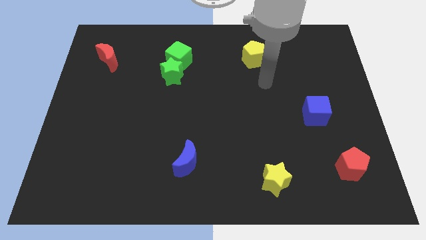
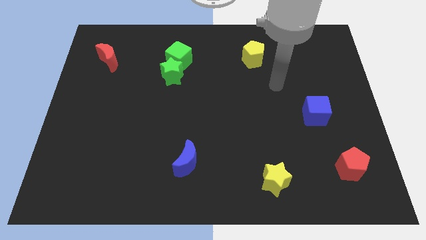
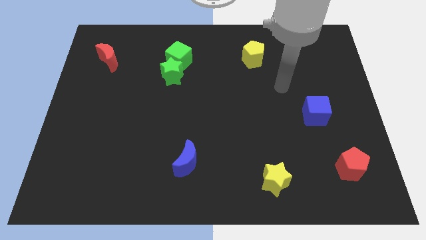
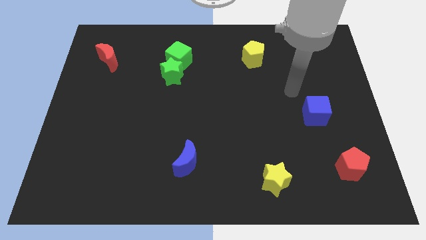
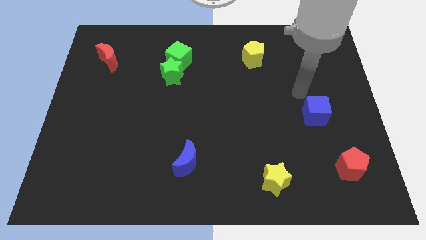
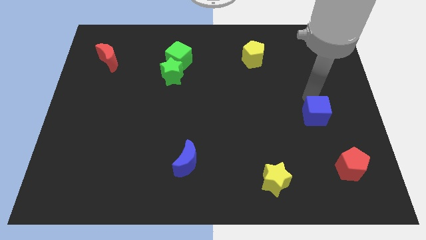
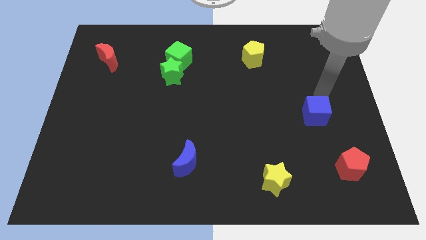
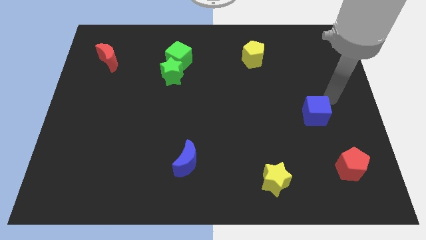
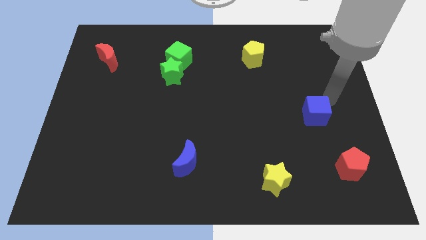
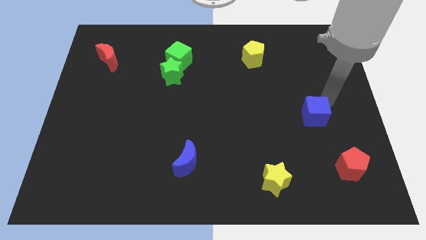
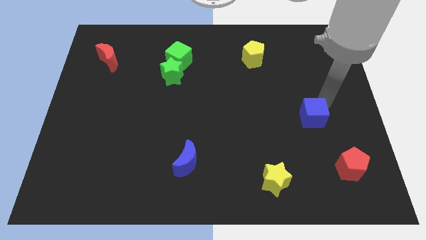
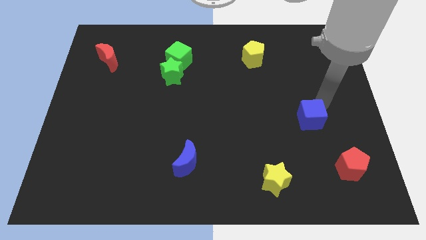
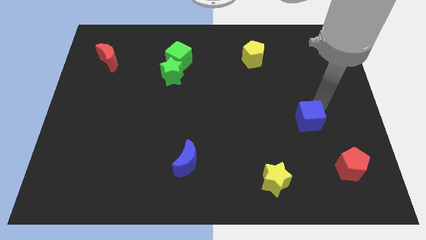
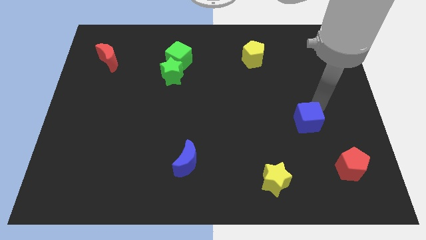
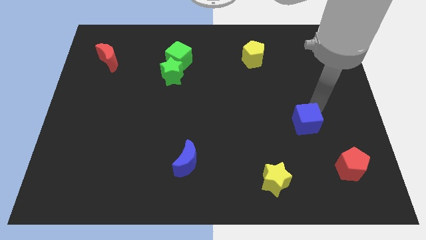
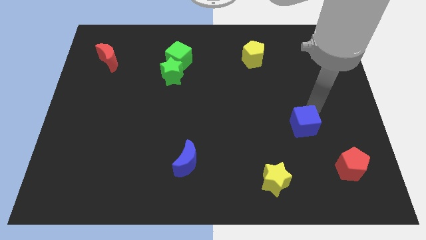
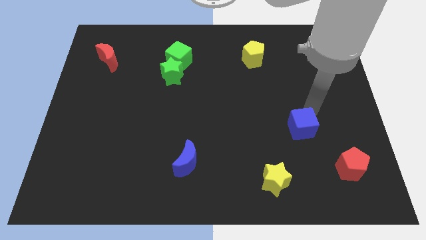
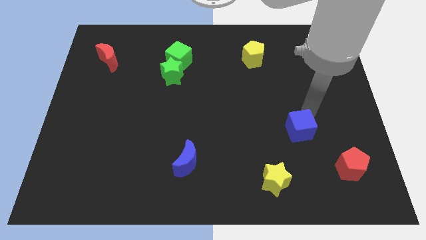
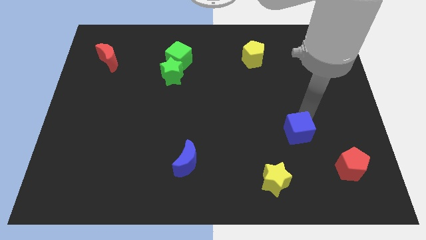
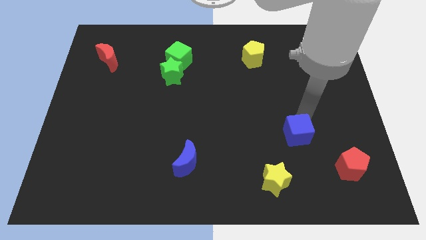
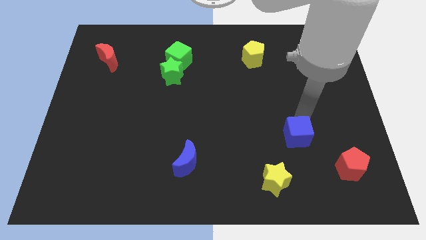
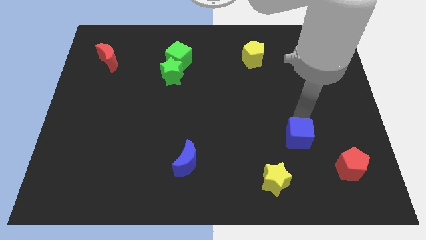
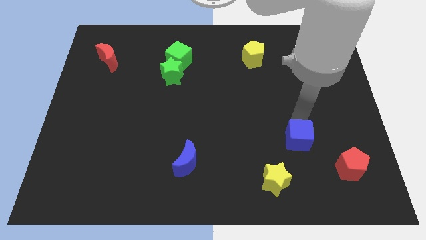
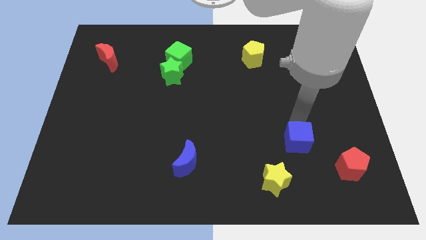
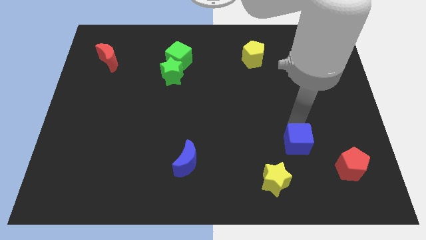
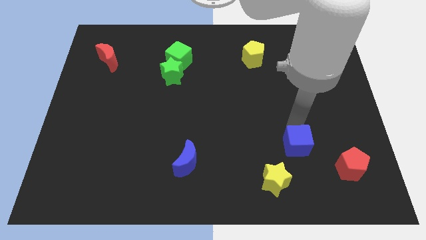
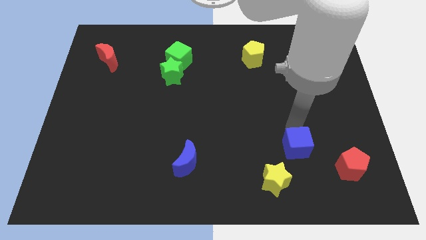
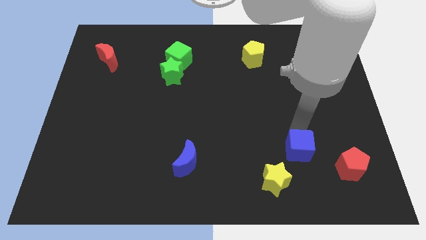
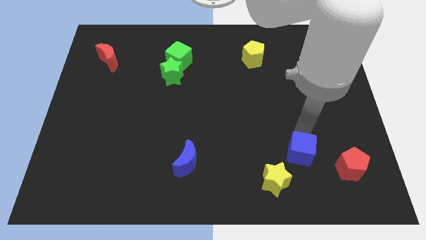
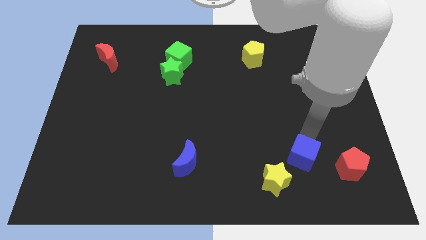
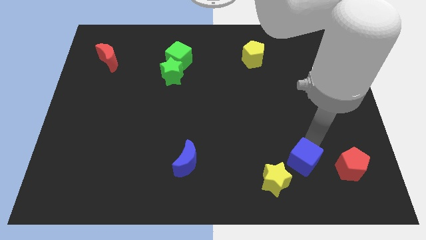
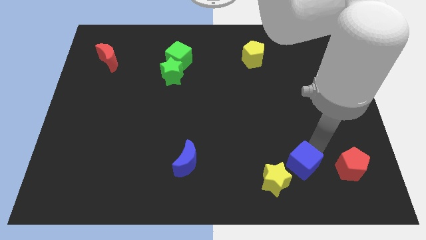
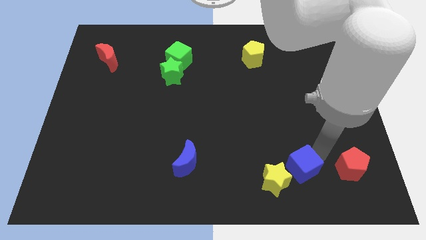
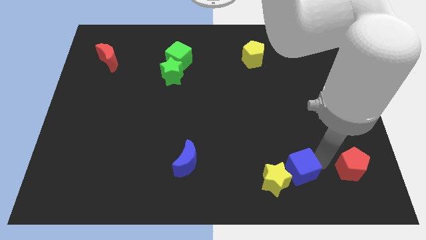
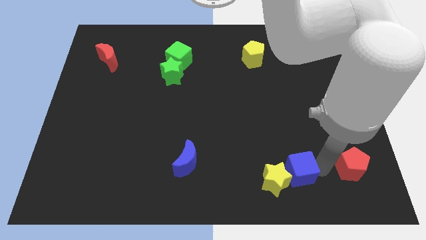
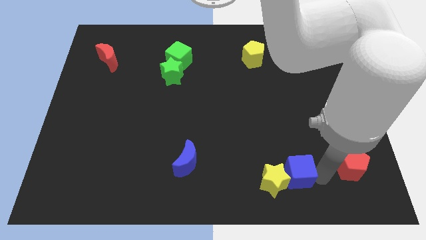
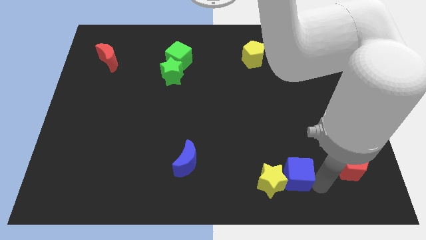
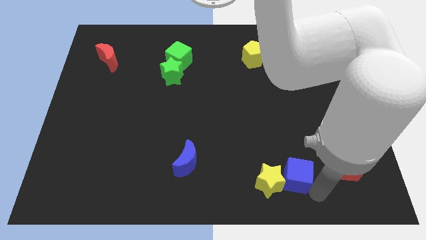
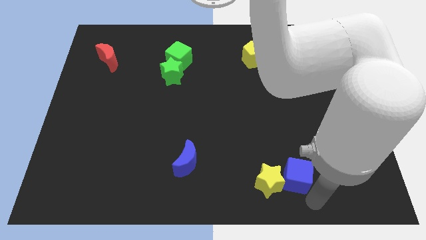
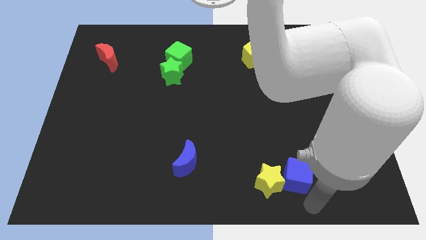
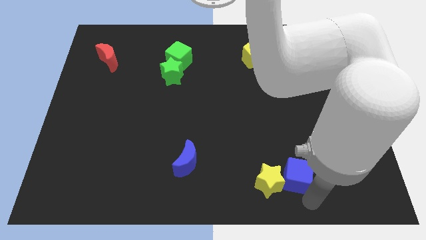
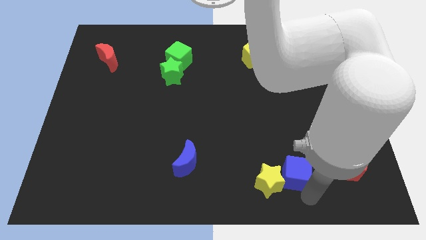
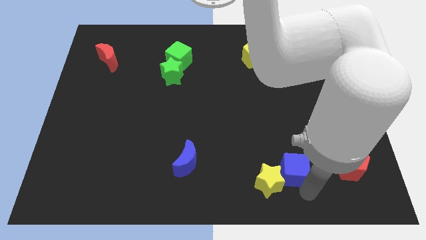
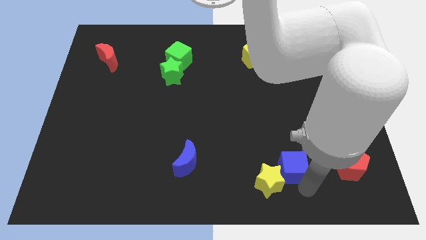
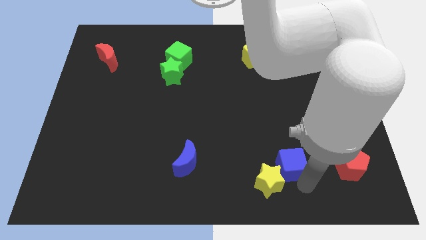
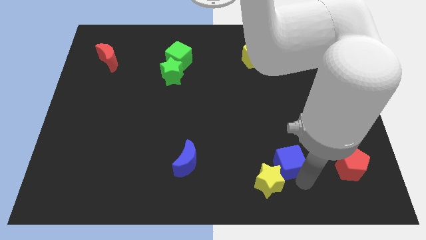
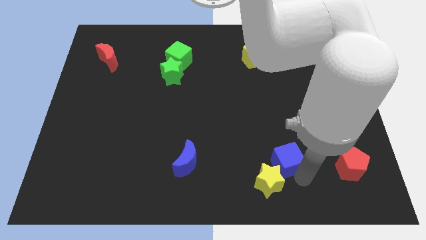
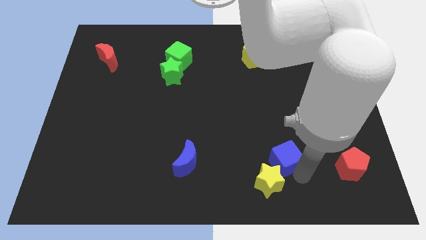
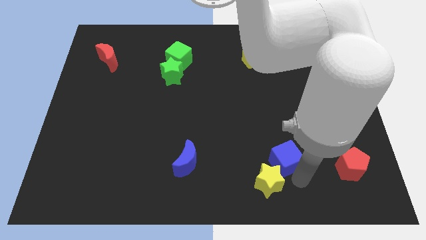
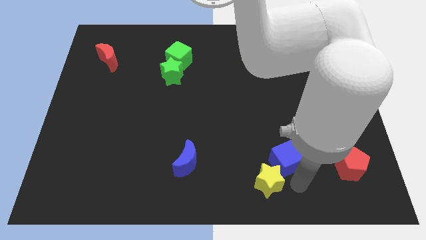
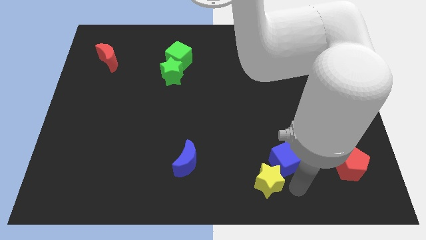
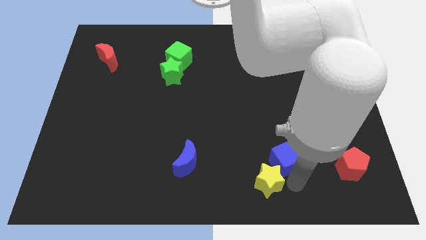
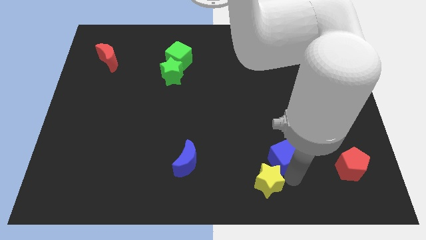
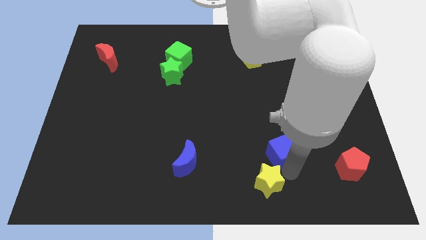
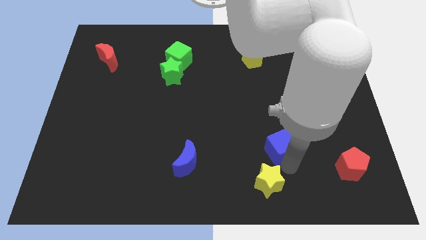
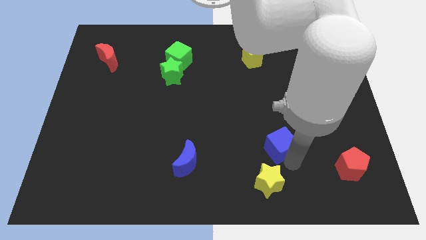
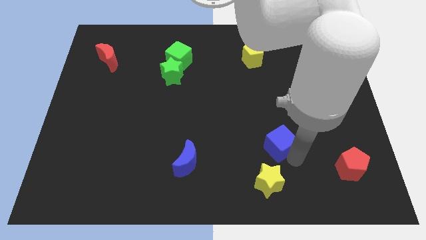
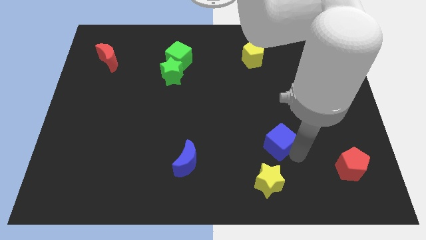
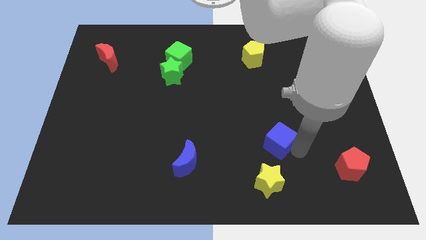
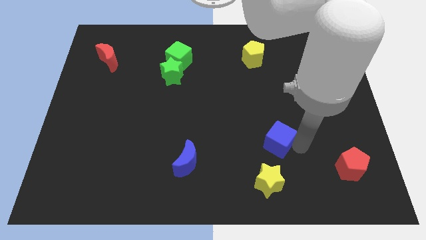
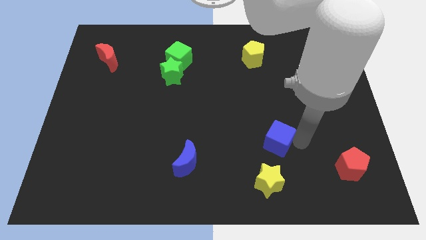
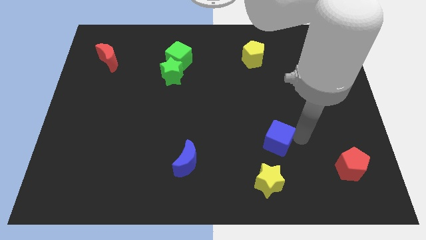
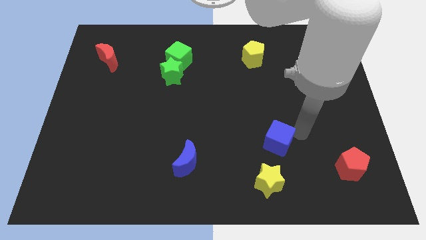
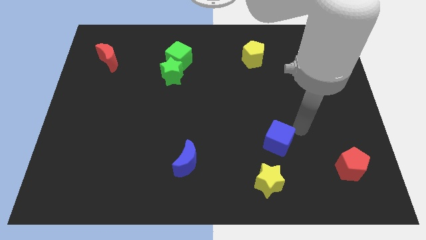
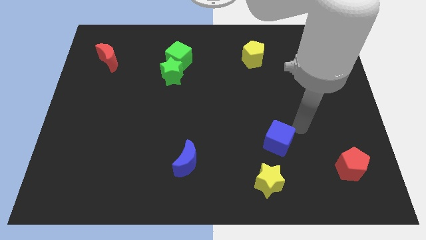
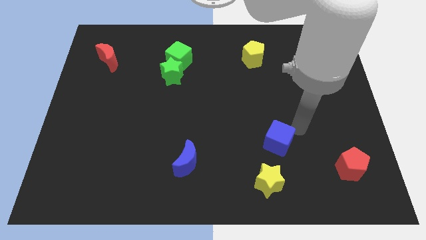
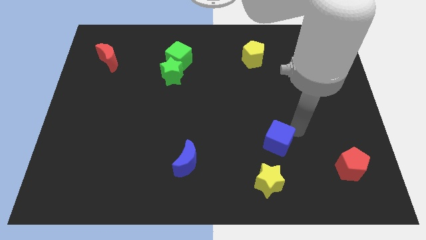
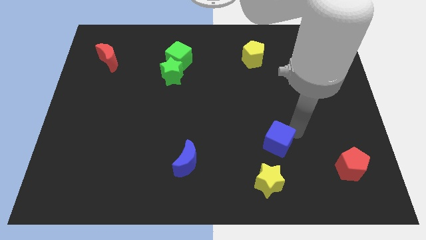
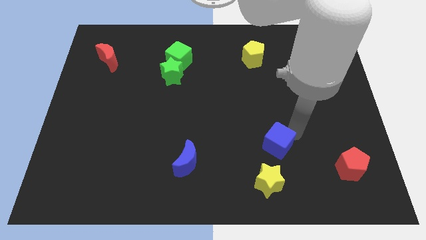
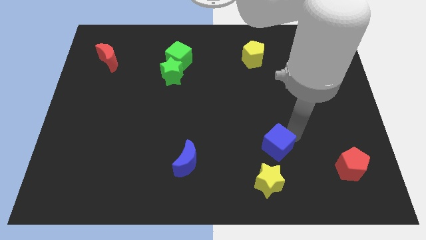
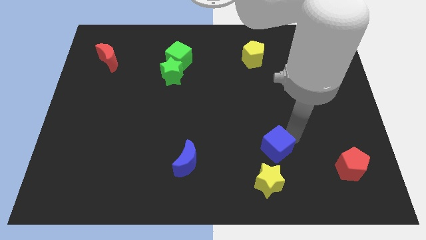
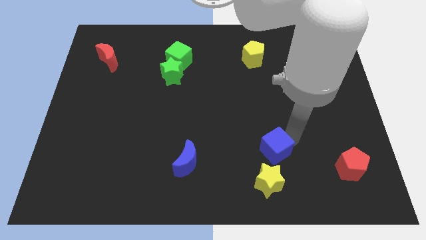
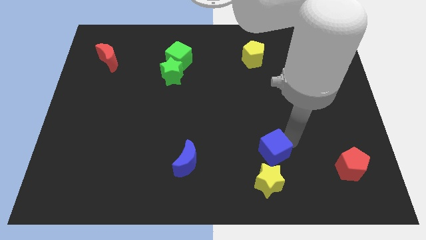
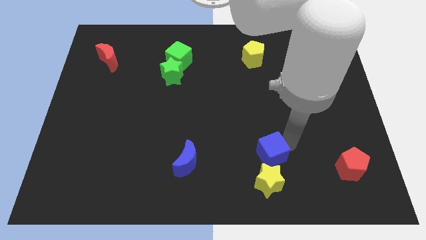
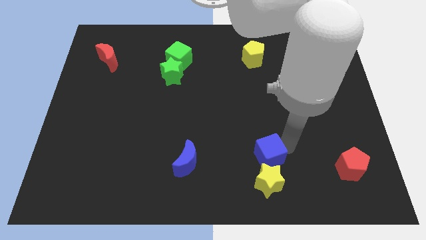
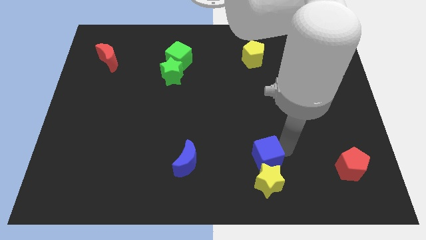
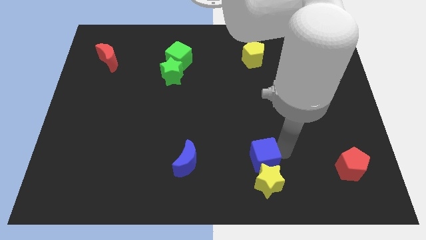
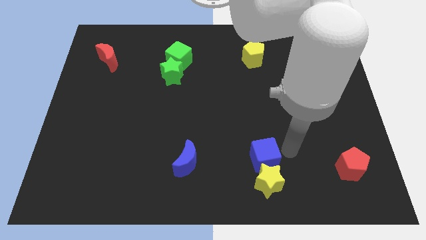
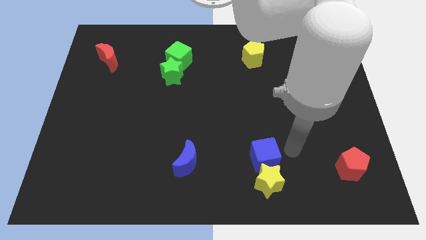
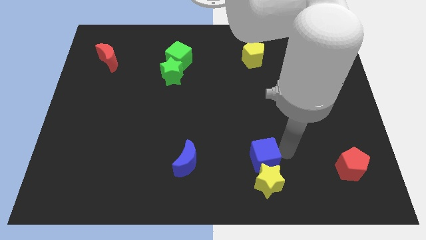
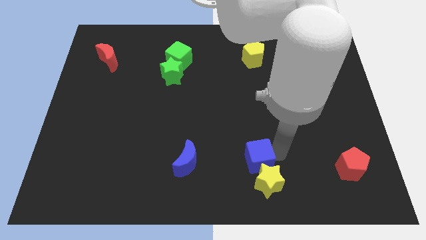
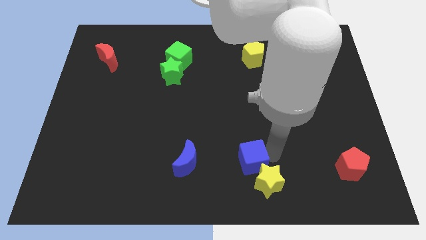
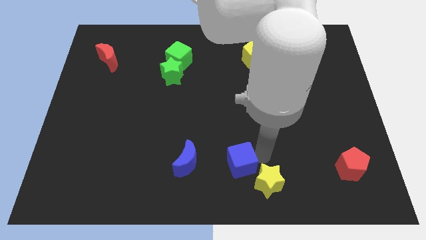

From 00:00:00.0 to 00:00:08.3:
move the blue cube to the bottom
